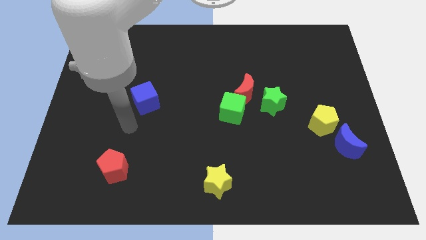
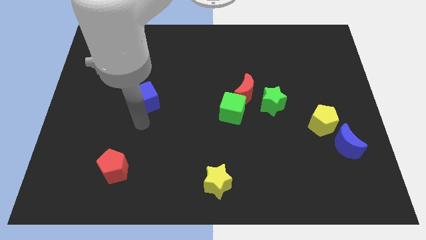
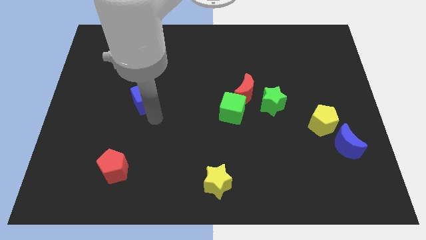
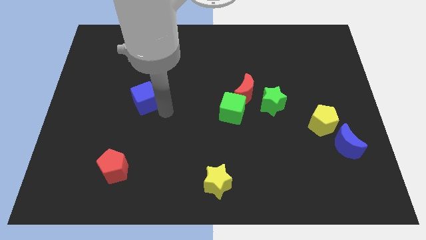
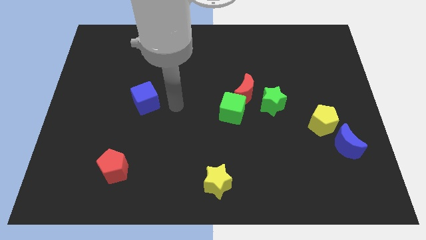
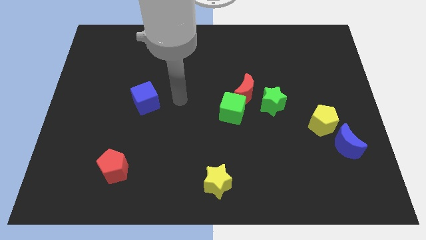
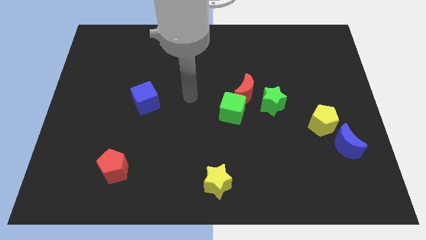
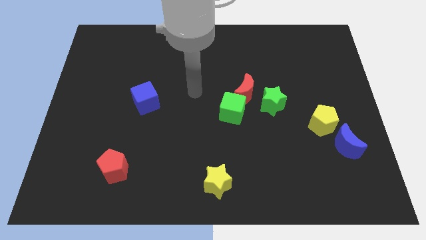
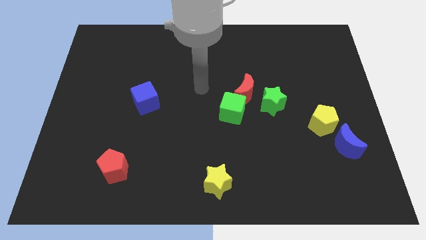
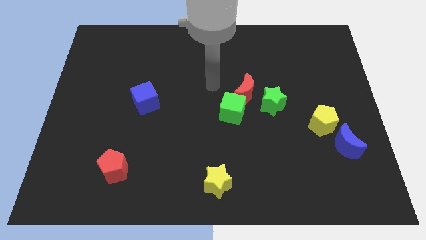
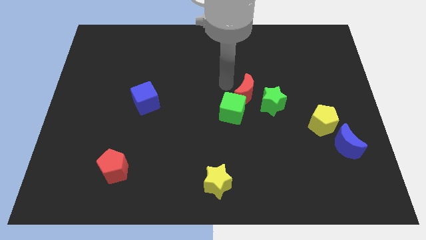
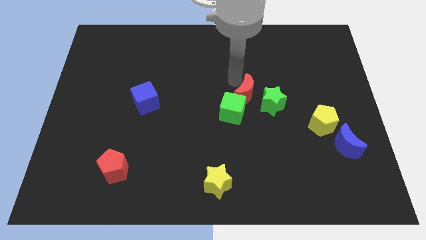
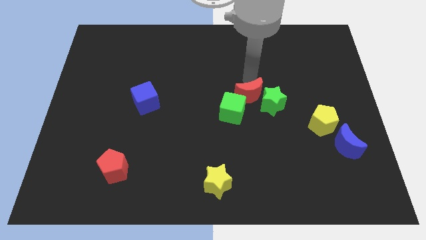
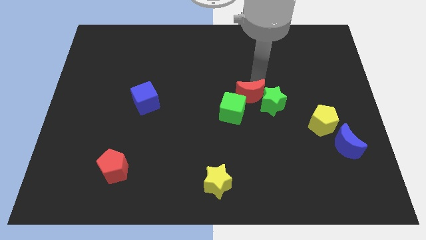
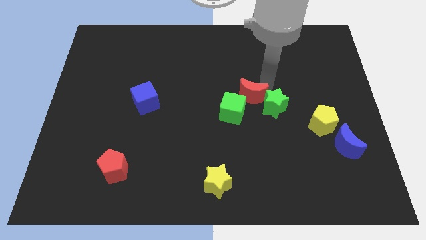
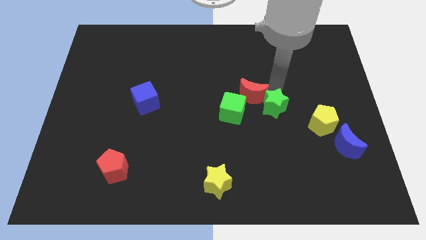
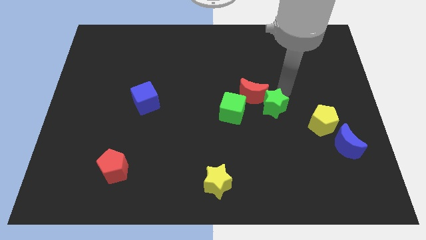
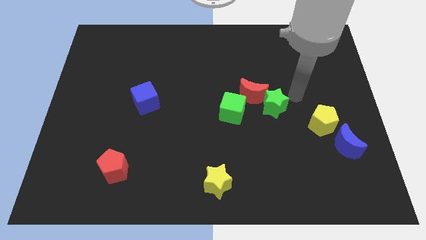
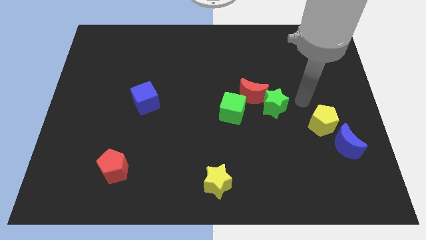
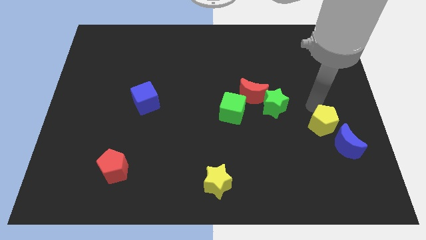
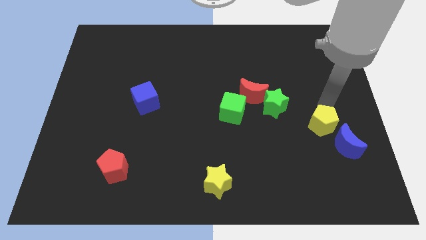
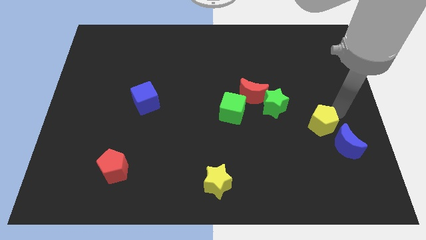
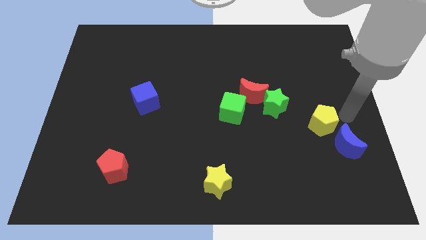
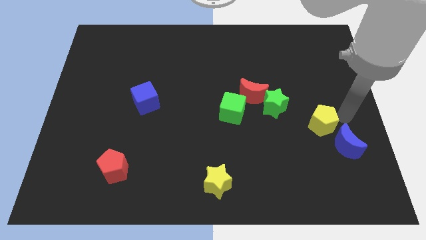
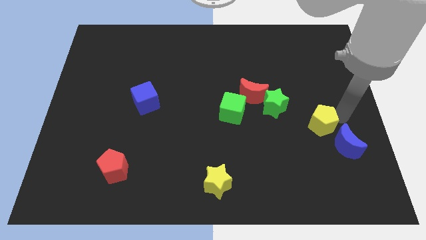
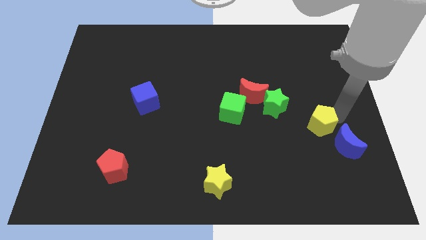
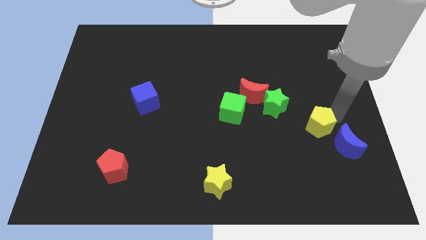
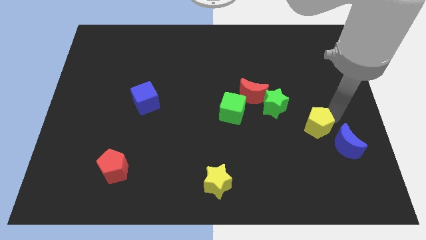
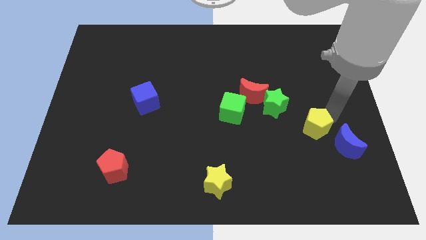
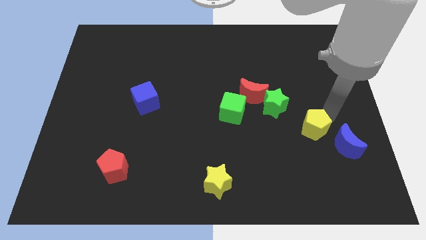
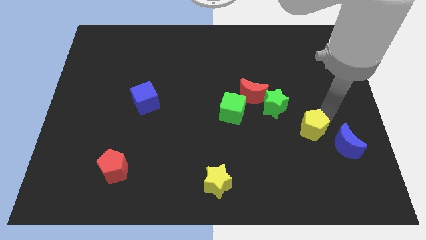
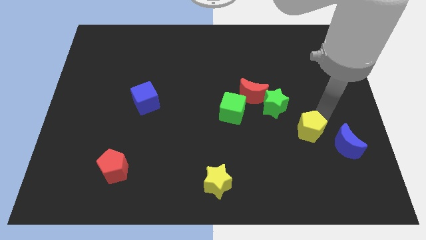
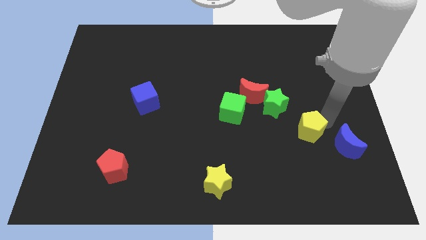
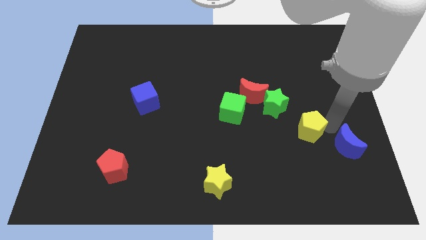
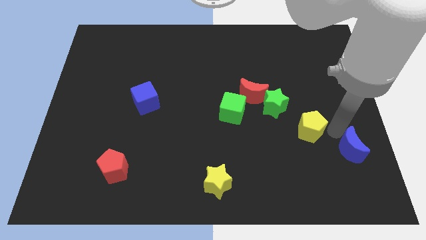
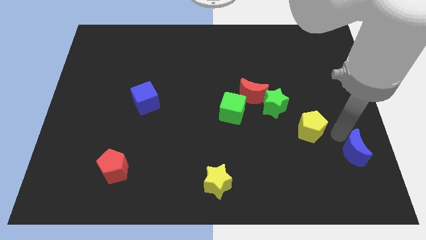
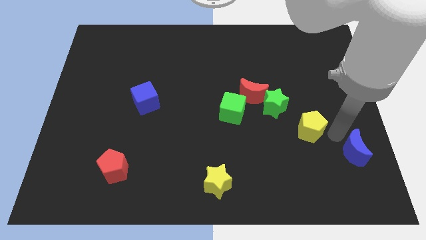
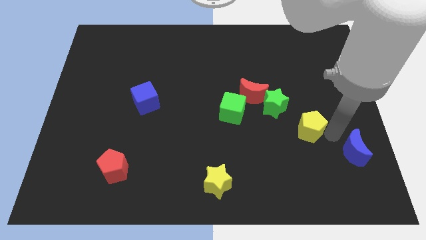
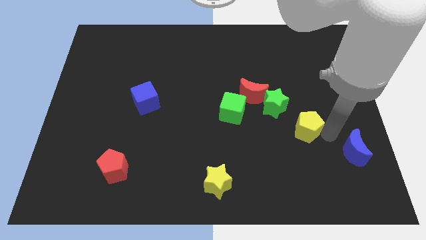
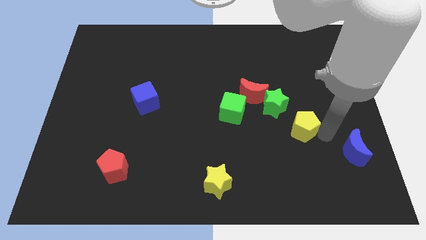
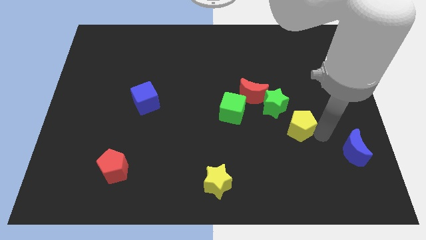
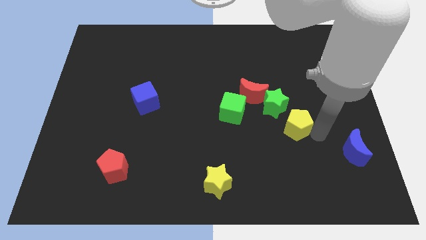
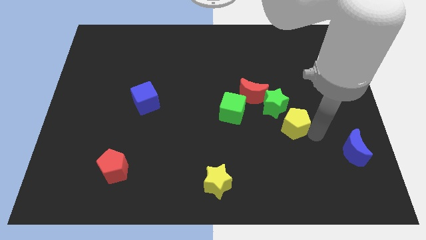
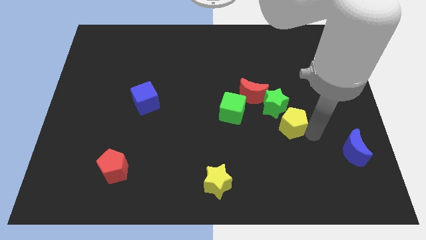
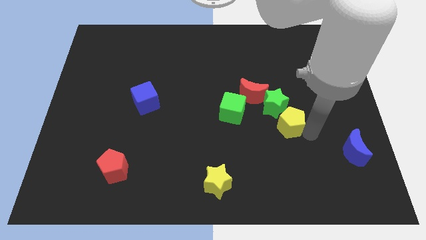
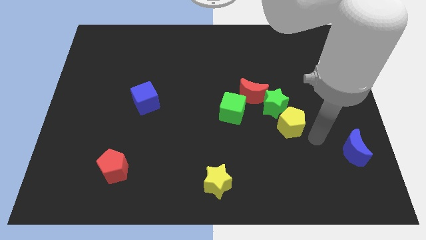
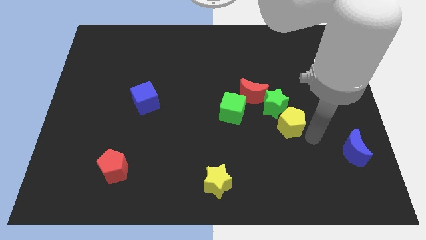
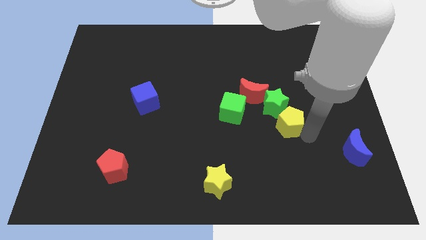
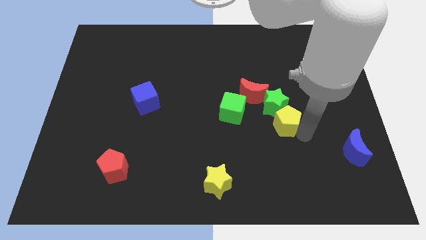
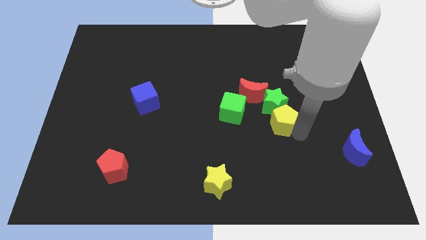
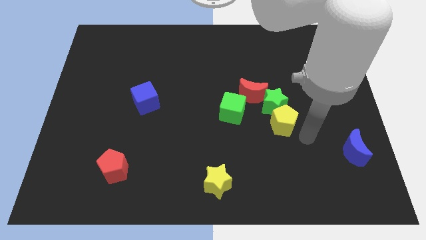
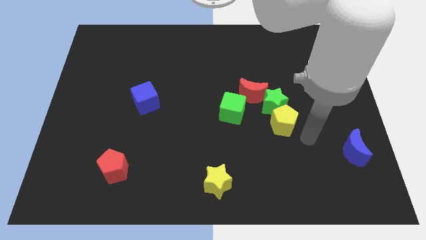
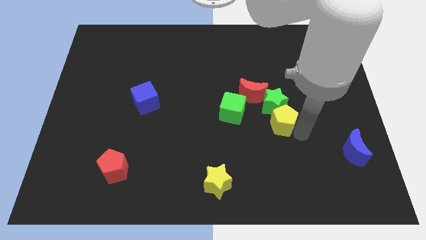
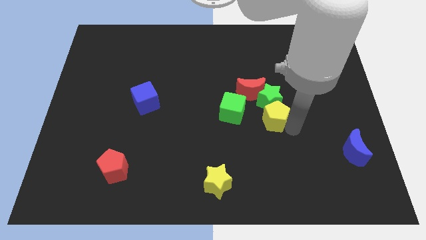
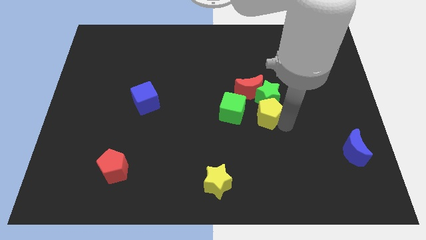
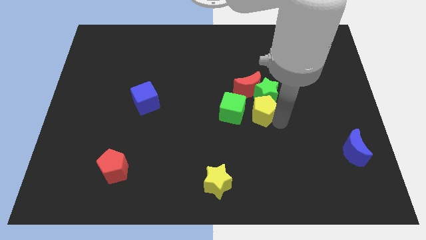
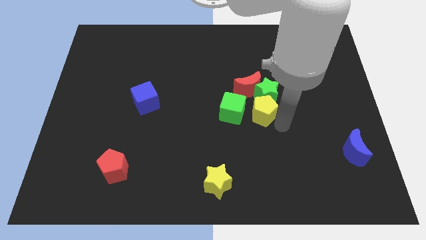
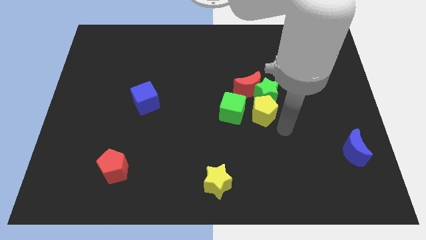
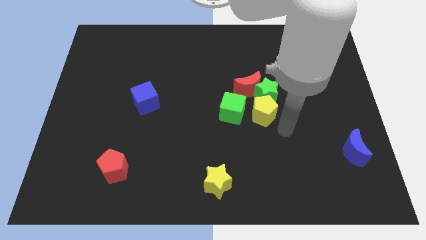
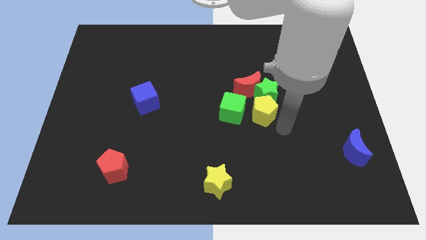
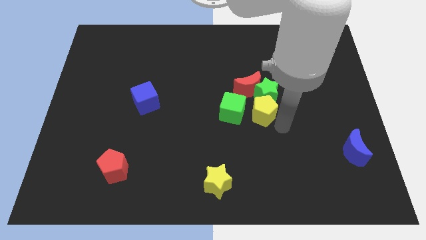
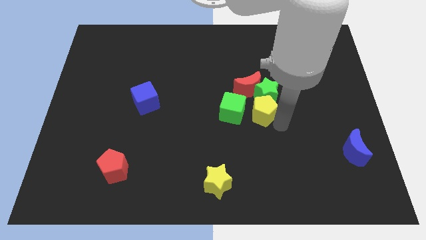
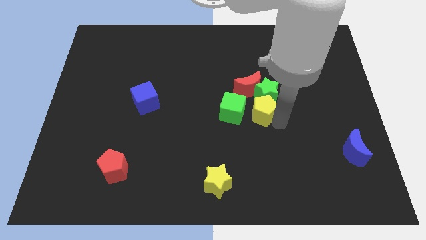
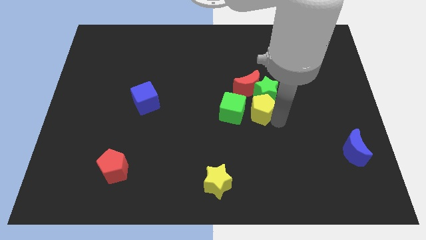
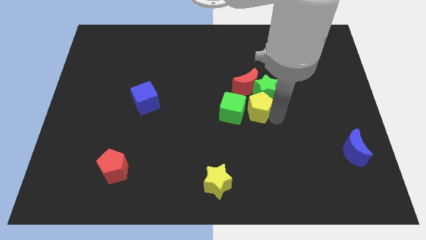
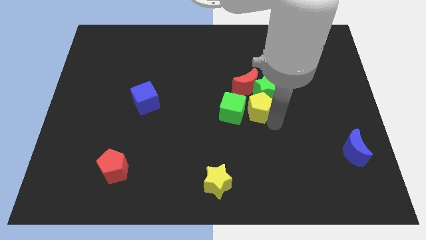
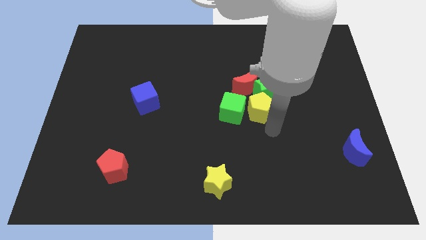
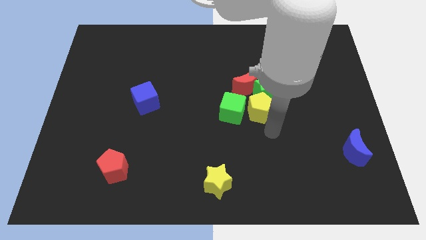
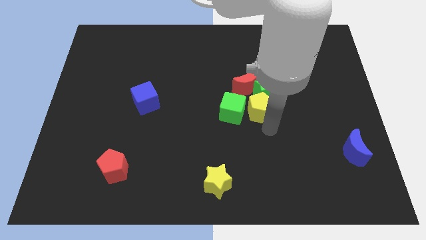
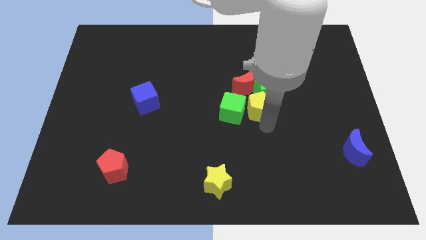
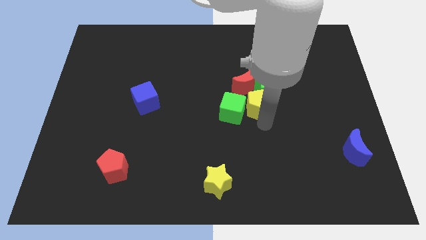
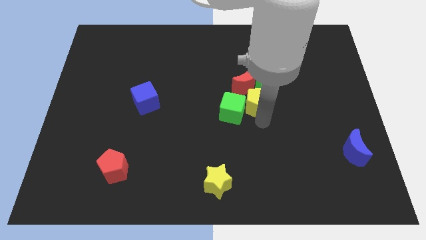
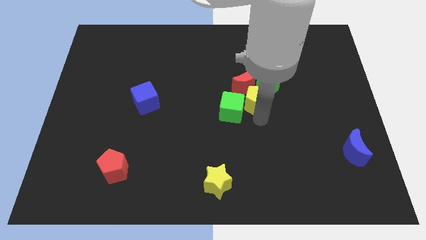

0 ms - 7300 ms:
put the yellow pentagon next to the red moon

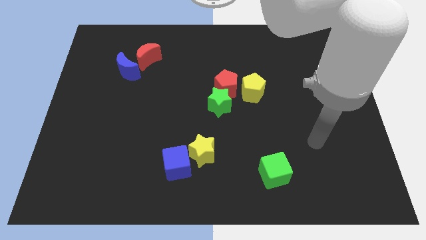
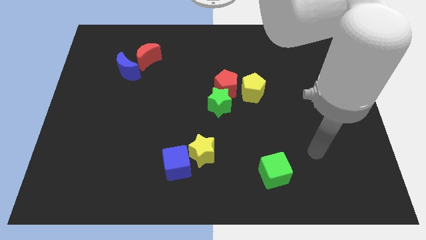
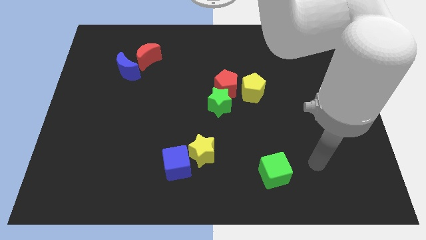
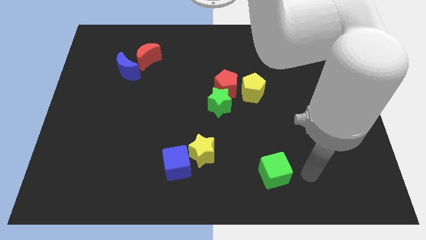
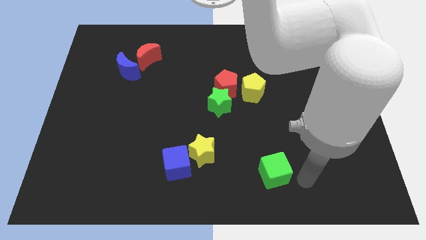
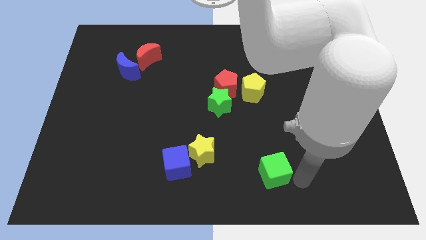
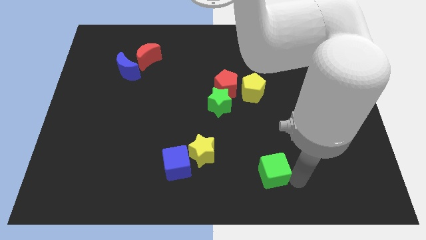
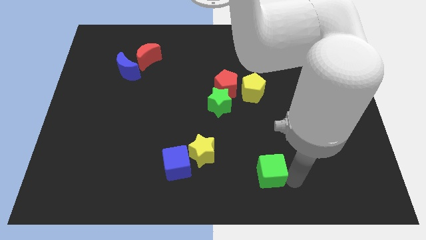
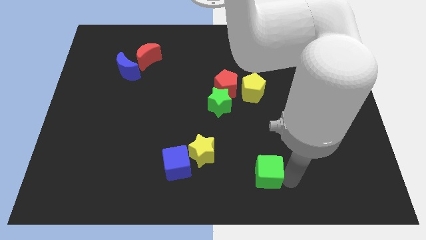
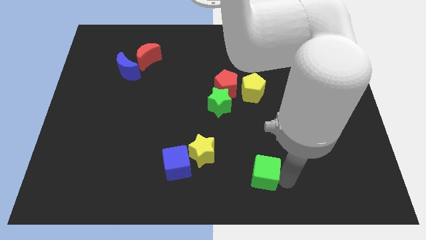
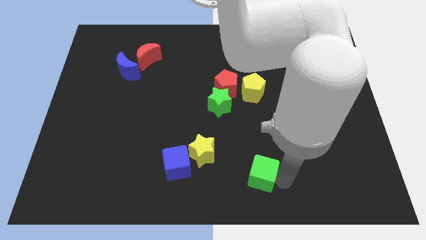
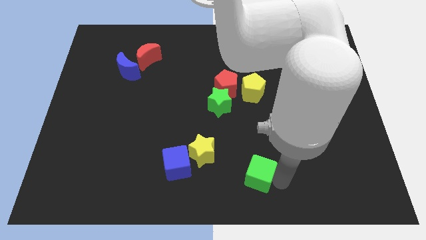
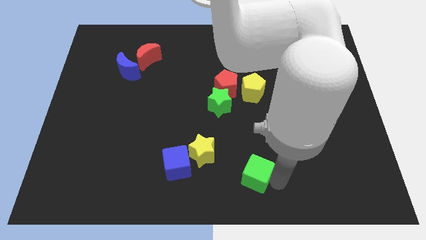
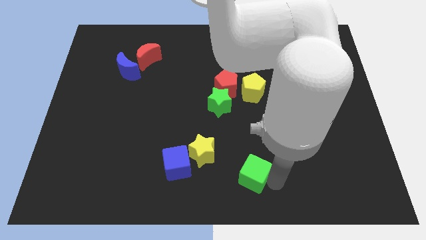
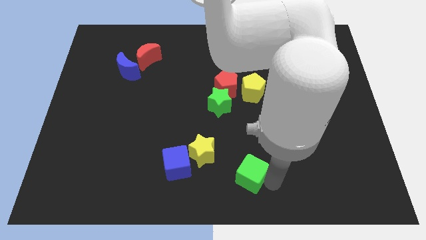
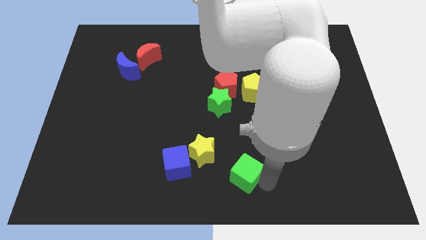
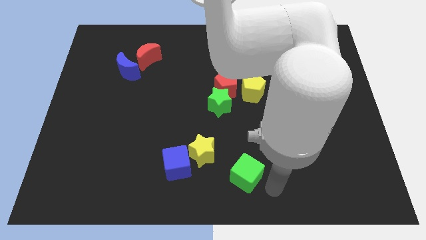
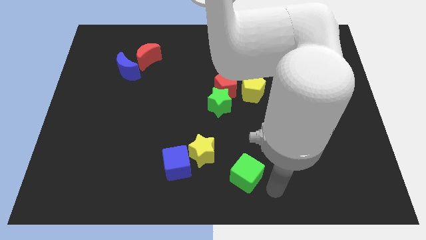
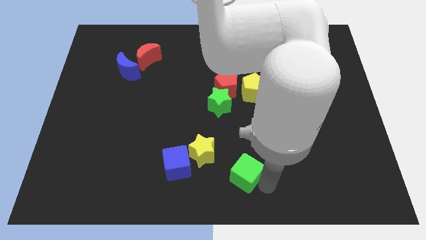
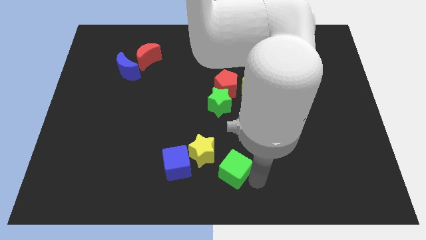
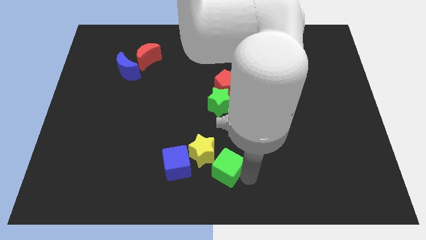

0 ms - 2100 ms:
slide the green cube next to the yellow star
